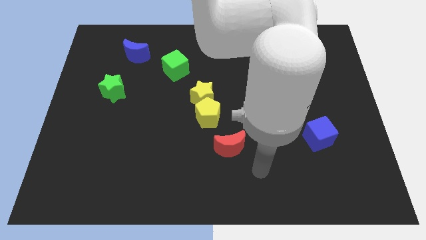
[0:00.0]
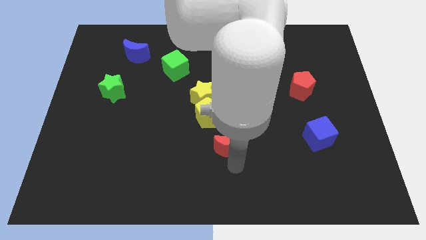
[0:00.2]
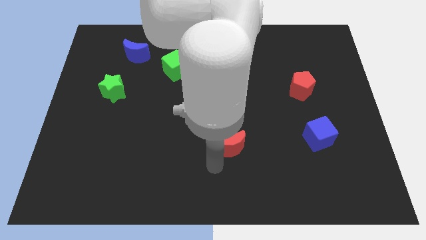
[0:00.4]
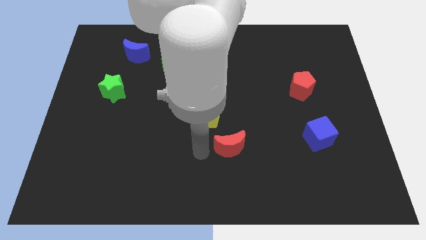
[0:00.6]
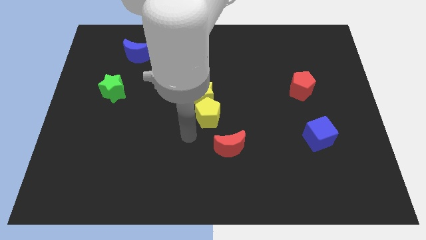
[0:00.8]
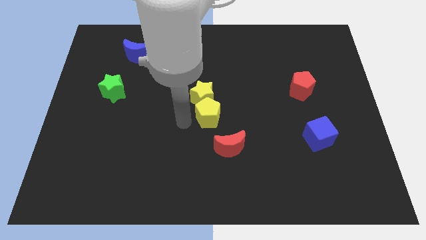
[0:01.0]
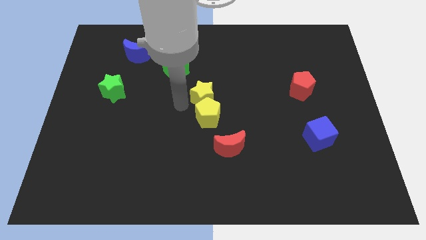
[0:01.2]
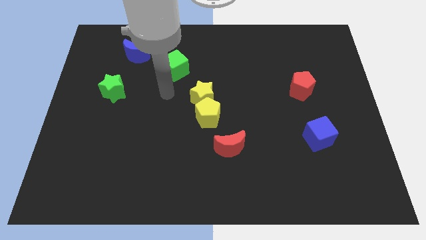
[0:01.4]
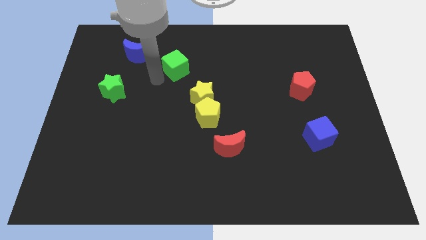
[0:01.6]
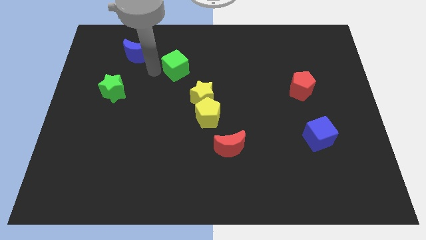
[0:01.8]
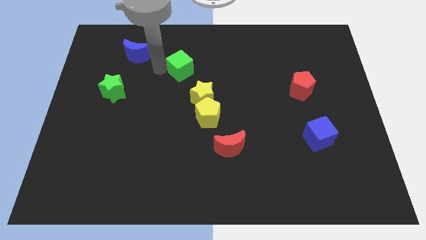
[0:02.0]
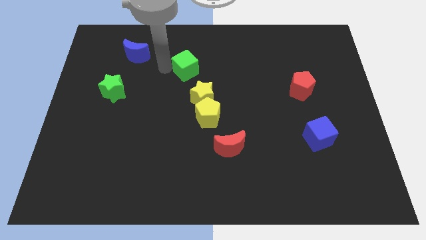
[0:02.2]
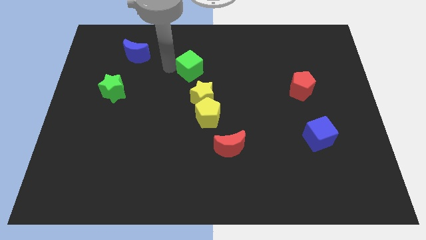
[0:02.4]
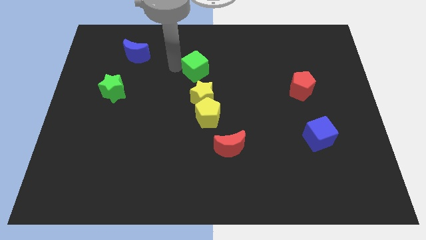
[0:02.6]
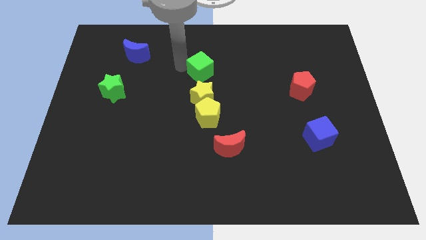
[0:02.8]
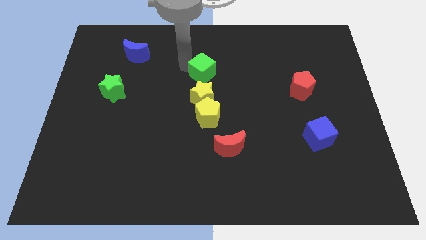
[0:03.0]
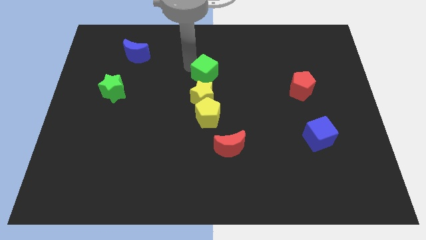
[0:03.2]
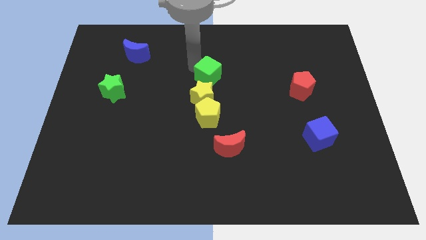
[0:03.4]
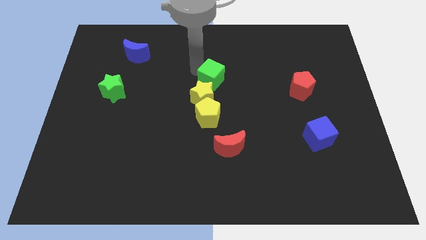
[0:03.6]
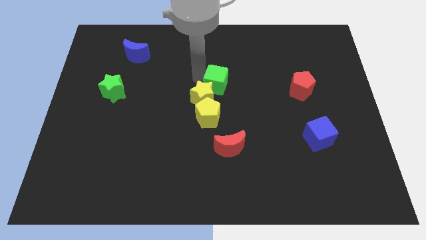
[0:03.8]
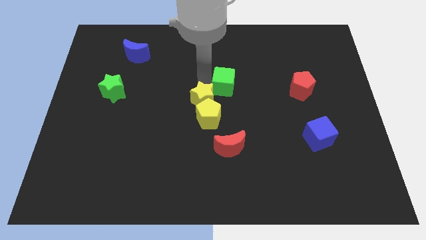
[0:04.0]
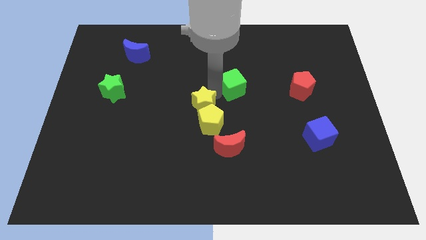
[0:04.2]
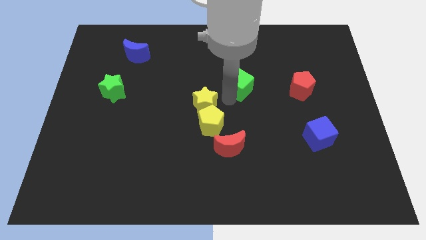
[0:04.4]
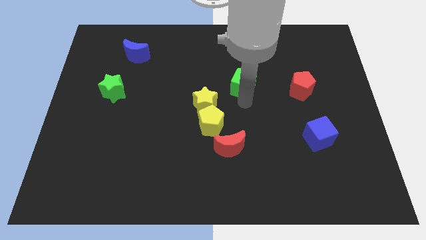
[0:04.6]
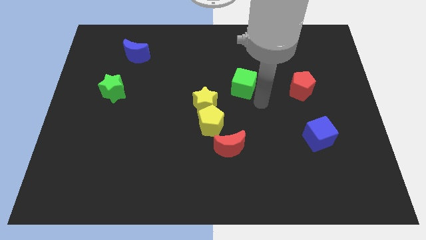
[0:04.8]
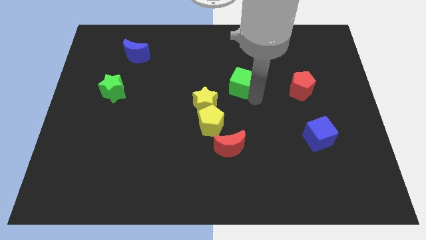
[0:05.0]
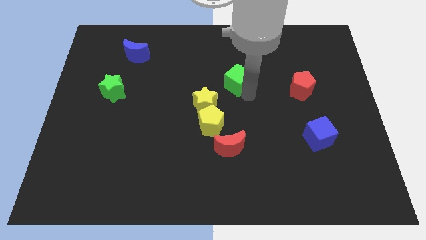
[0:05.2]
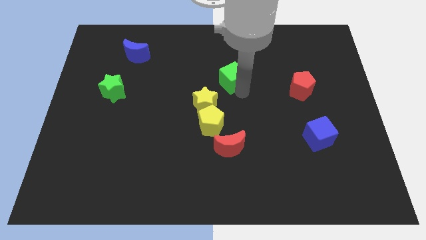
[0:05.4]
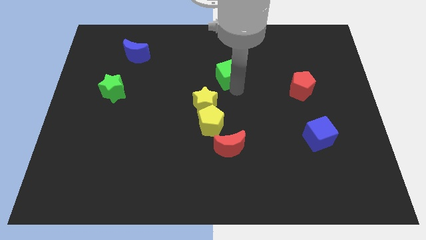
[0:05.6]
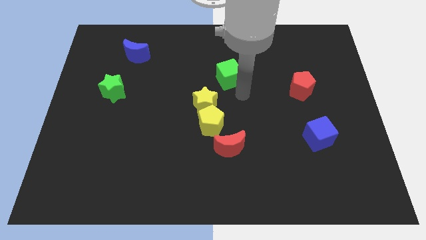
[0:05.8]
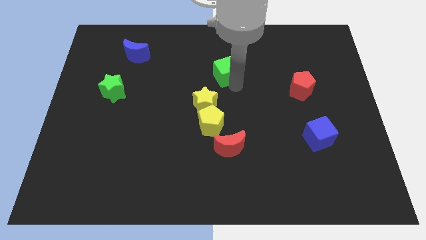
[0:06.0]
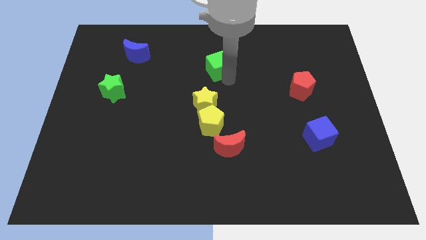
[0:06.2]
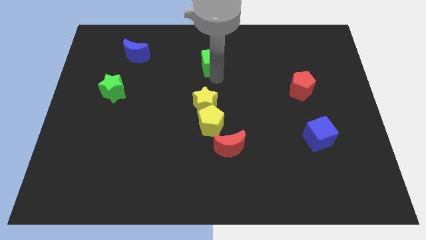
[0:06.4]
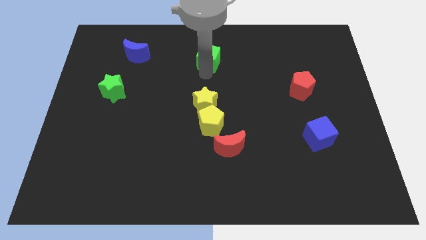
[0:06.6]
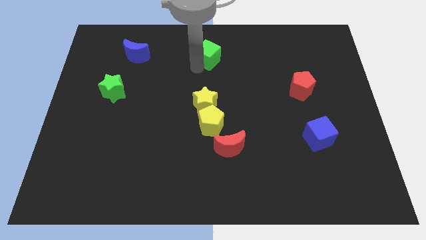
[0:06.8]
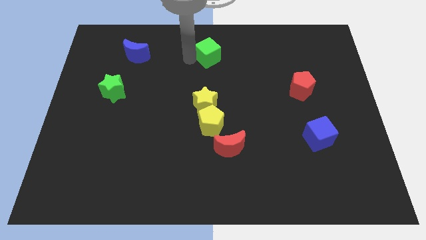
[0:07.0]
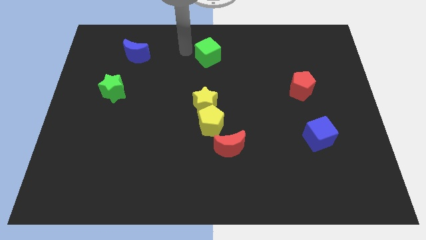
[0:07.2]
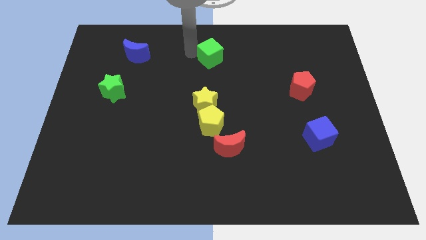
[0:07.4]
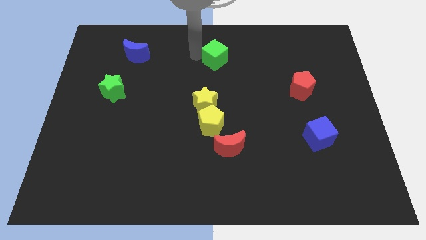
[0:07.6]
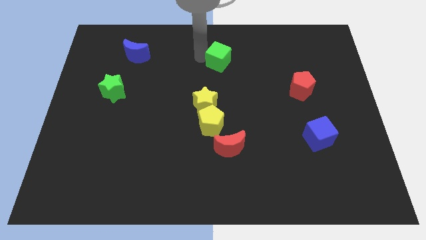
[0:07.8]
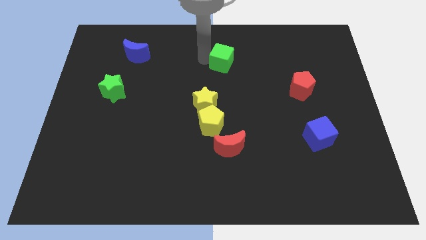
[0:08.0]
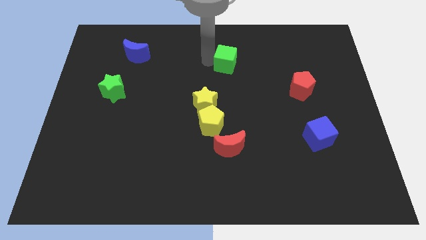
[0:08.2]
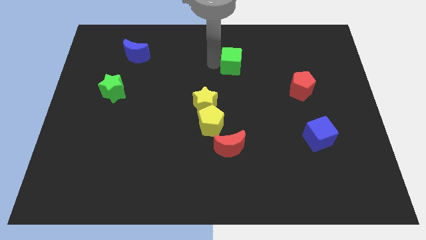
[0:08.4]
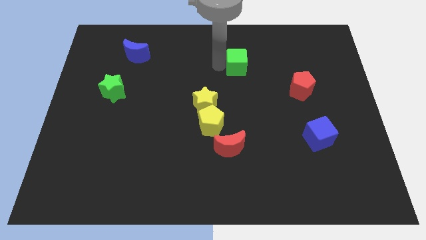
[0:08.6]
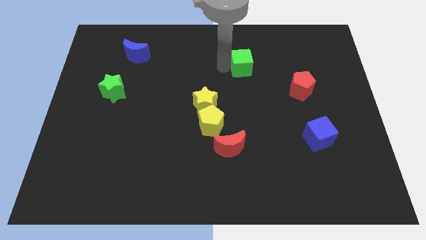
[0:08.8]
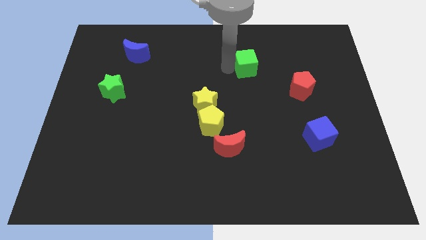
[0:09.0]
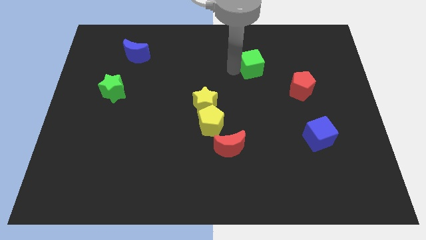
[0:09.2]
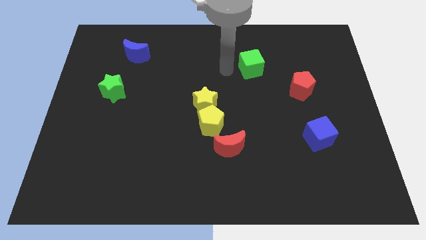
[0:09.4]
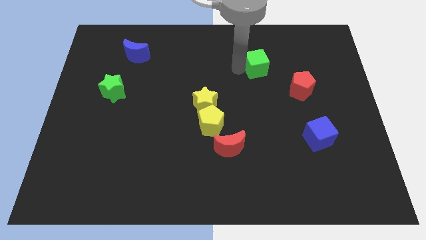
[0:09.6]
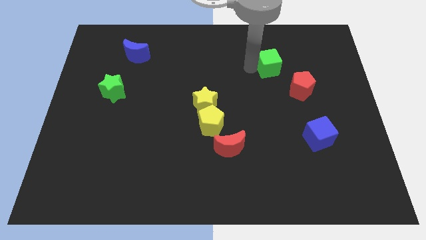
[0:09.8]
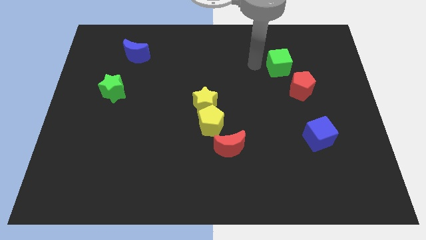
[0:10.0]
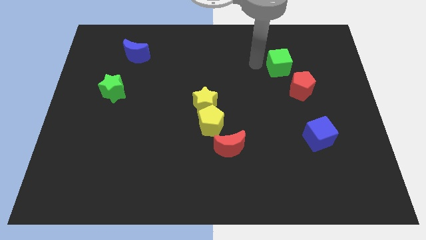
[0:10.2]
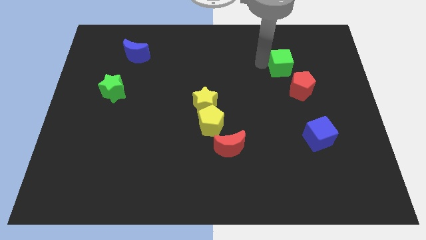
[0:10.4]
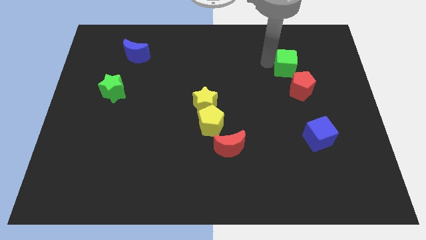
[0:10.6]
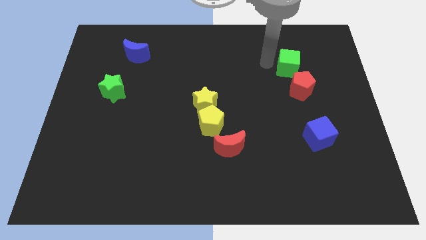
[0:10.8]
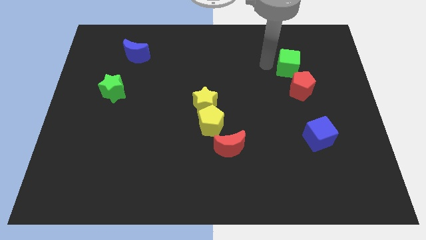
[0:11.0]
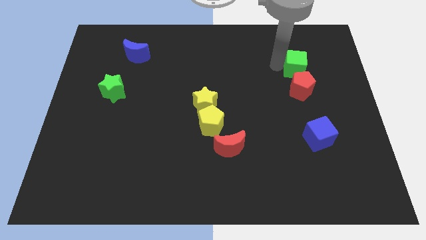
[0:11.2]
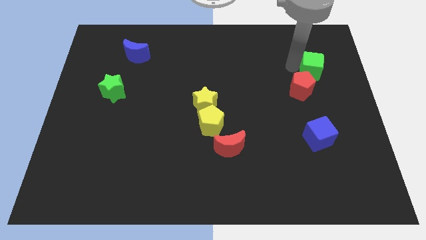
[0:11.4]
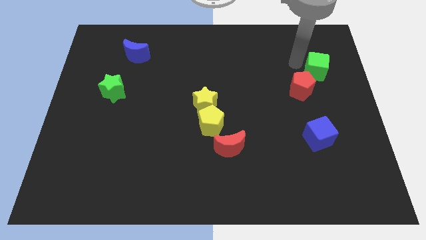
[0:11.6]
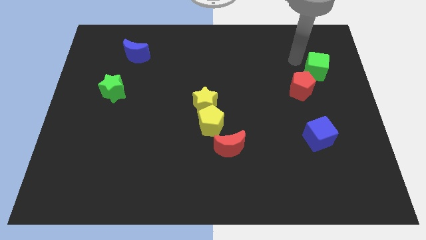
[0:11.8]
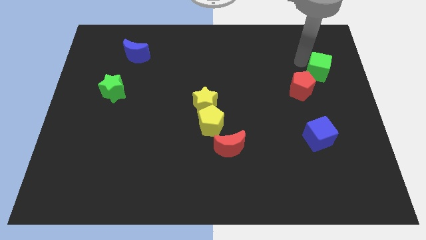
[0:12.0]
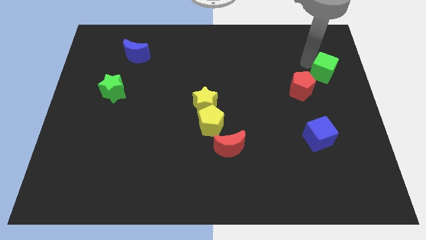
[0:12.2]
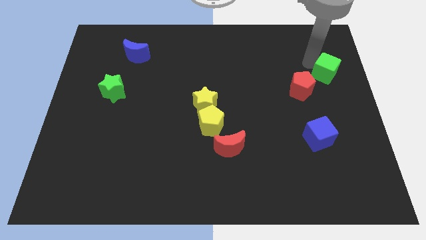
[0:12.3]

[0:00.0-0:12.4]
slide the green cube to the right side of the board
